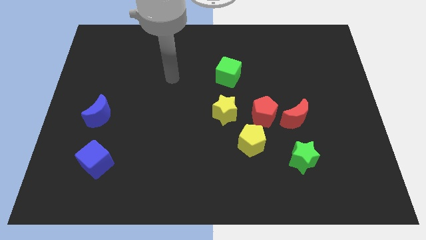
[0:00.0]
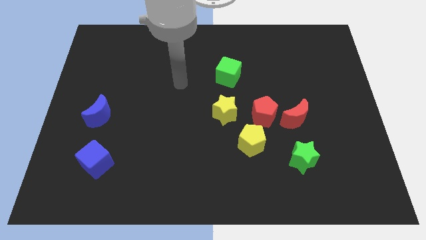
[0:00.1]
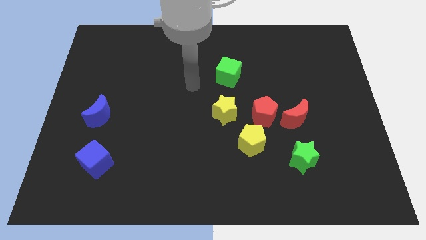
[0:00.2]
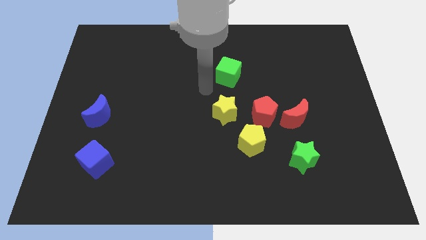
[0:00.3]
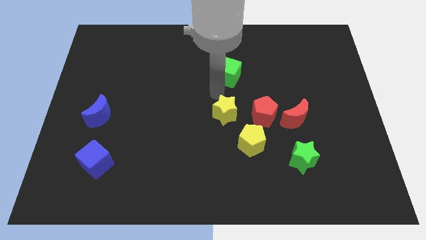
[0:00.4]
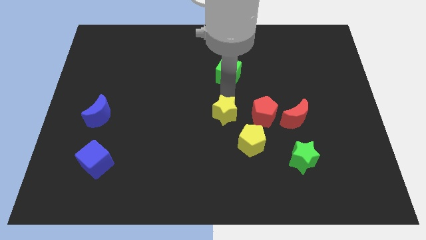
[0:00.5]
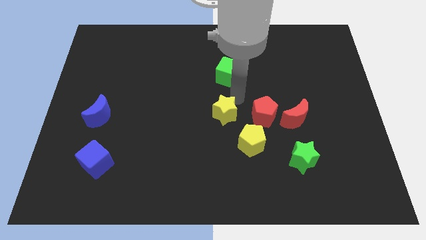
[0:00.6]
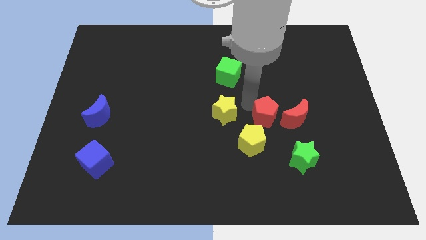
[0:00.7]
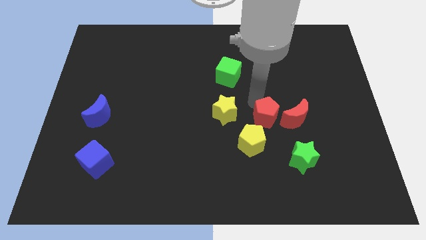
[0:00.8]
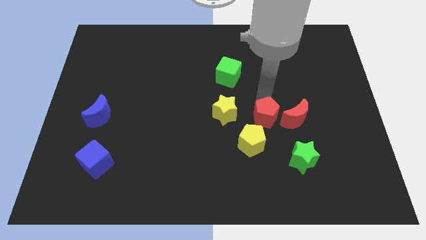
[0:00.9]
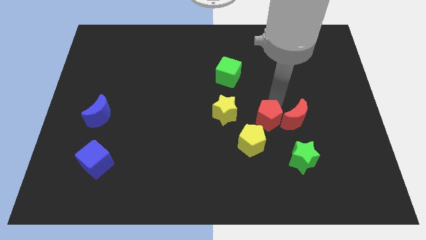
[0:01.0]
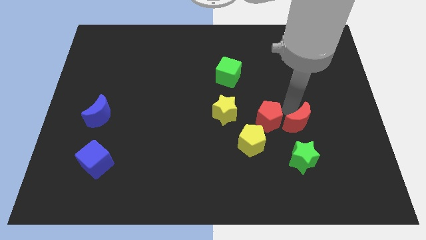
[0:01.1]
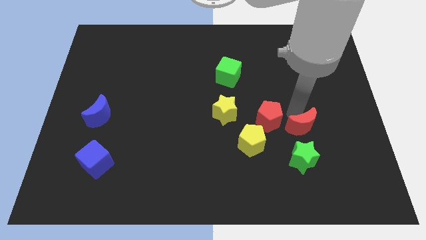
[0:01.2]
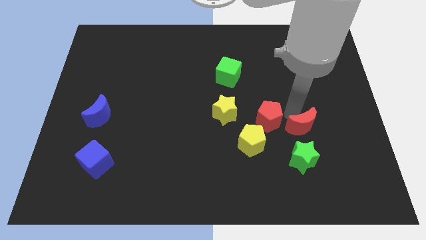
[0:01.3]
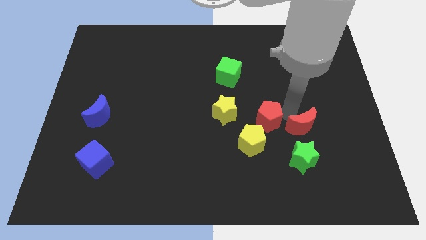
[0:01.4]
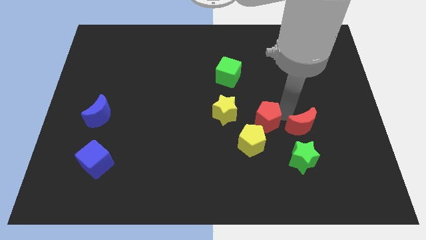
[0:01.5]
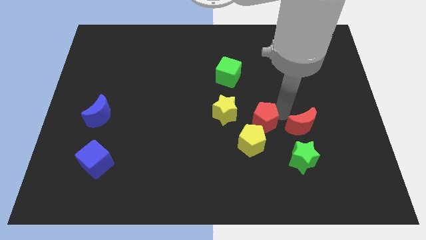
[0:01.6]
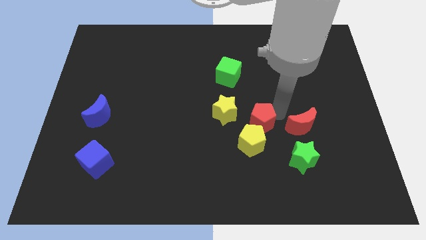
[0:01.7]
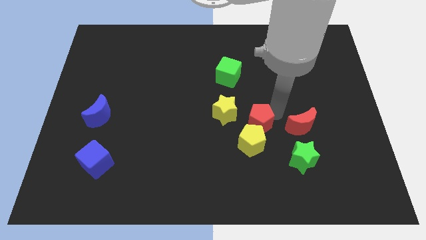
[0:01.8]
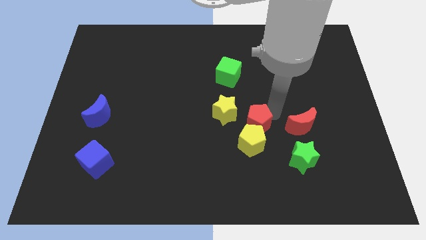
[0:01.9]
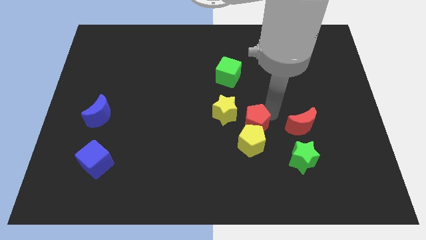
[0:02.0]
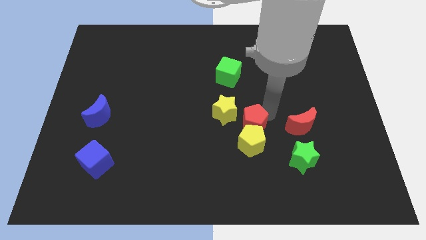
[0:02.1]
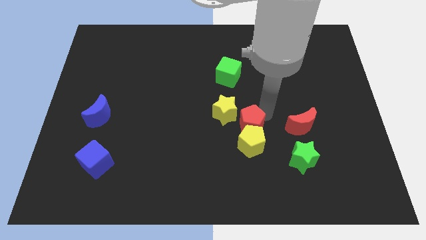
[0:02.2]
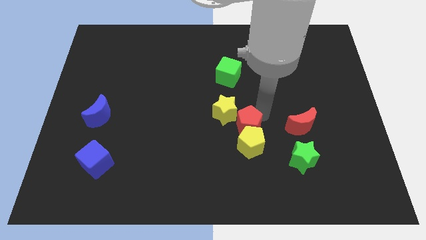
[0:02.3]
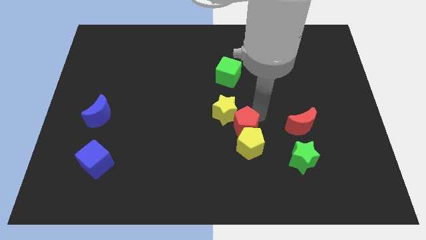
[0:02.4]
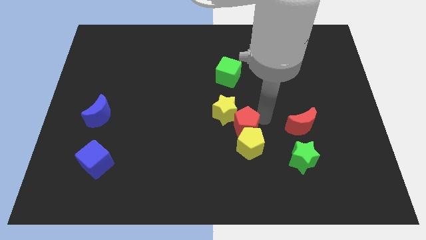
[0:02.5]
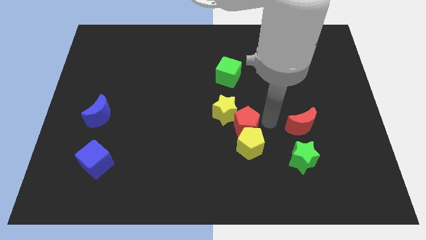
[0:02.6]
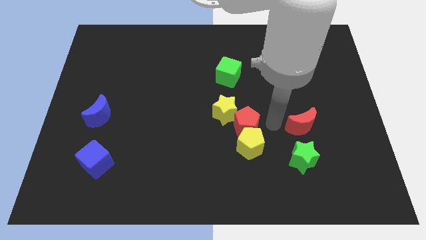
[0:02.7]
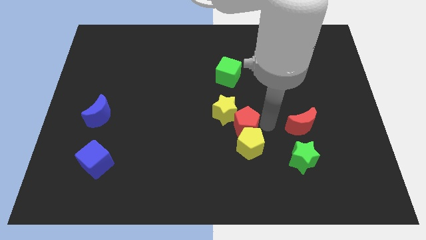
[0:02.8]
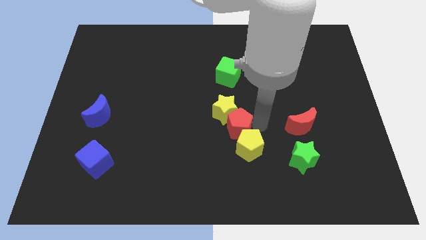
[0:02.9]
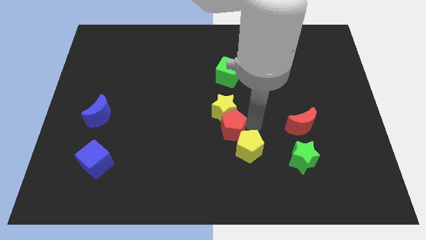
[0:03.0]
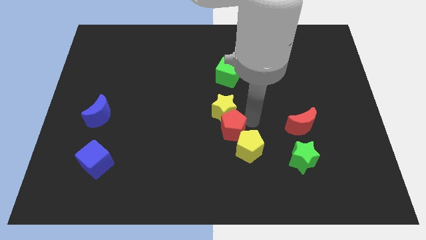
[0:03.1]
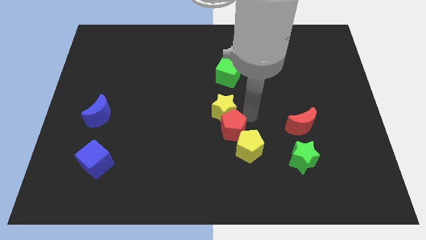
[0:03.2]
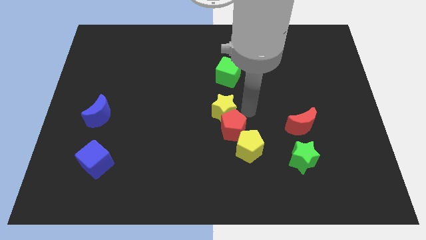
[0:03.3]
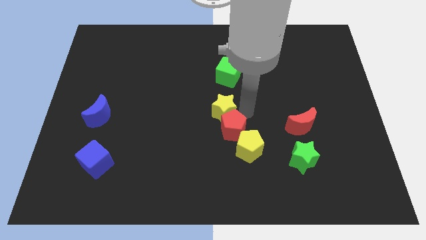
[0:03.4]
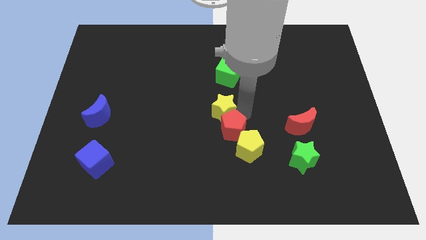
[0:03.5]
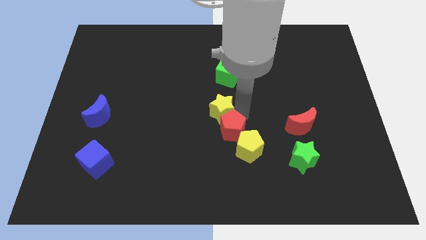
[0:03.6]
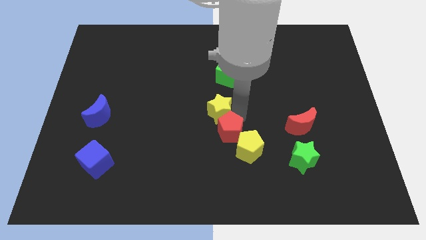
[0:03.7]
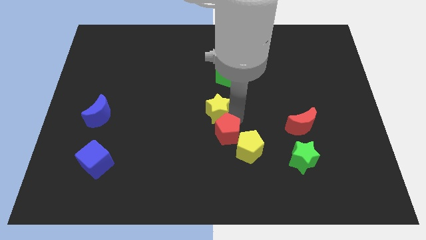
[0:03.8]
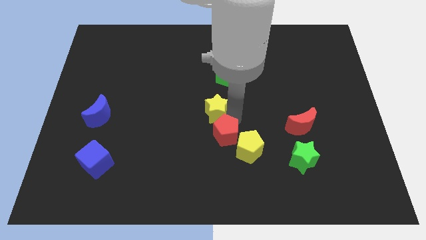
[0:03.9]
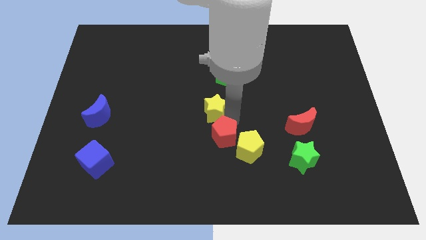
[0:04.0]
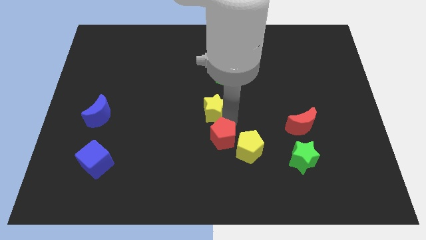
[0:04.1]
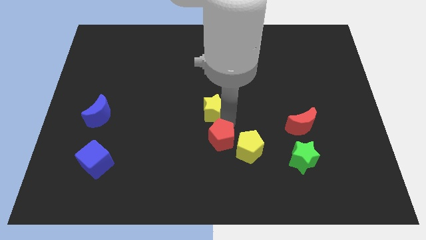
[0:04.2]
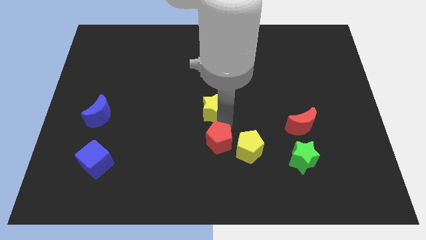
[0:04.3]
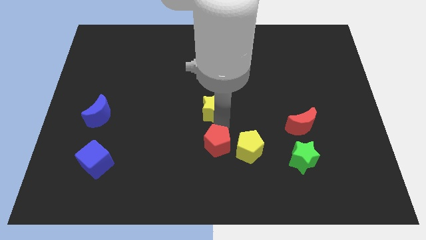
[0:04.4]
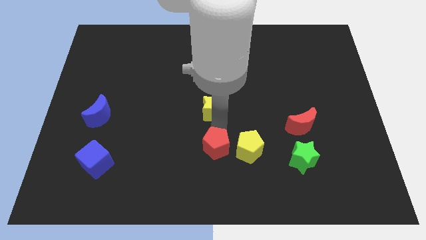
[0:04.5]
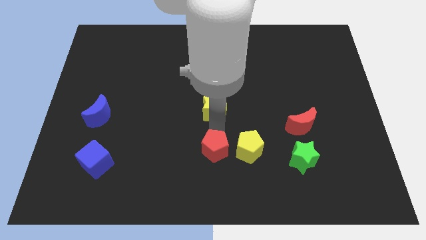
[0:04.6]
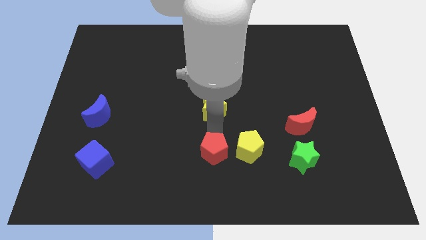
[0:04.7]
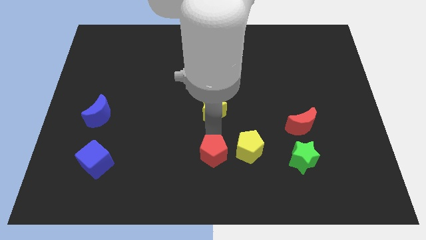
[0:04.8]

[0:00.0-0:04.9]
slide the red pentagon to the bottom

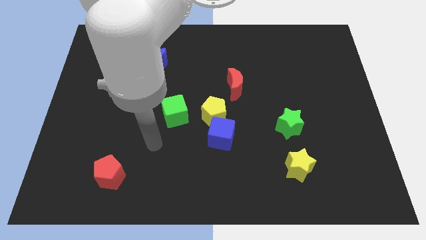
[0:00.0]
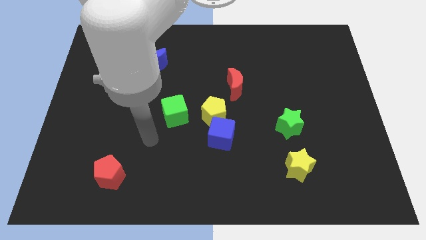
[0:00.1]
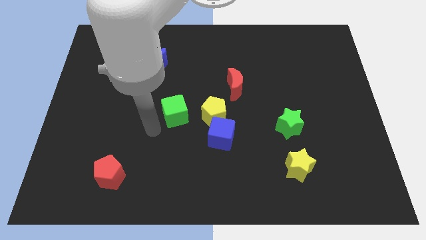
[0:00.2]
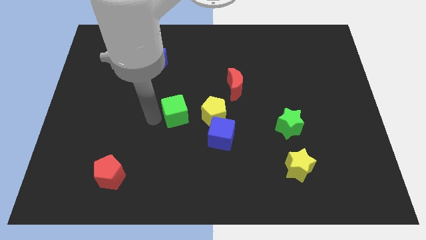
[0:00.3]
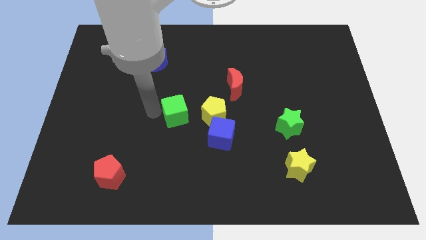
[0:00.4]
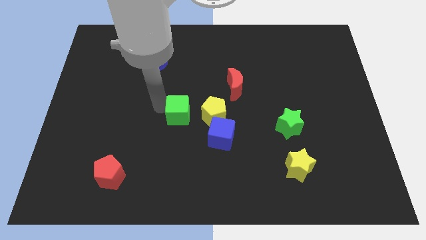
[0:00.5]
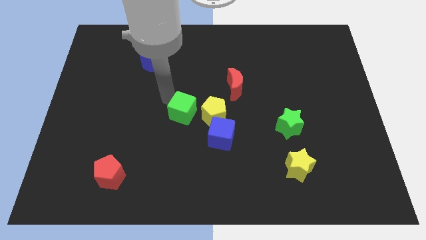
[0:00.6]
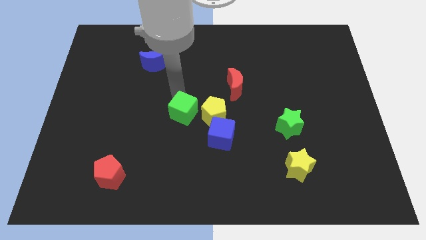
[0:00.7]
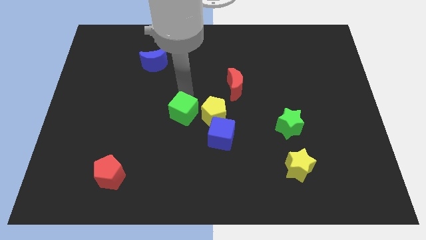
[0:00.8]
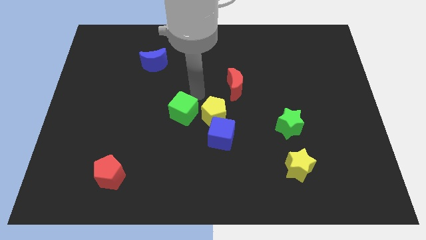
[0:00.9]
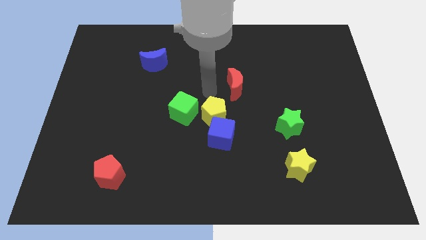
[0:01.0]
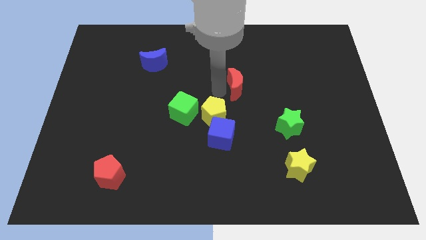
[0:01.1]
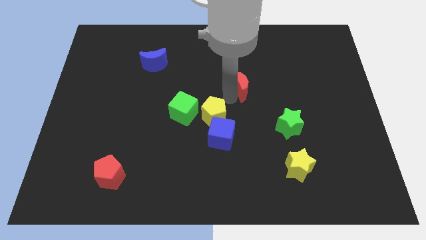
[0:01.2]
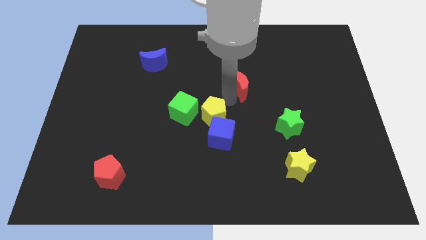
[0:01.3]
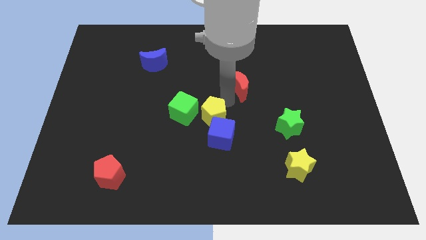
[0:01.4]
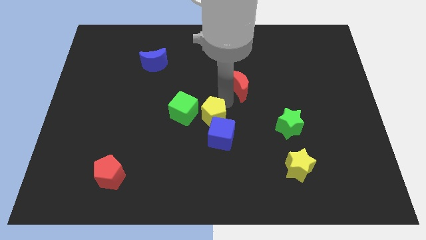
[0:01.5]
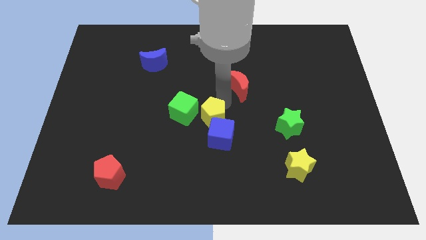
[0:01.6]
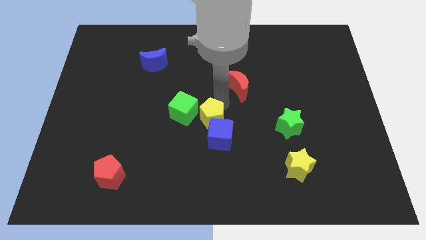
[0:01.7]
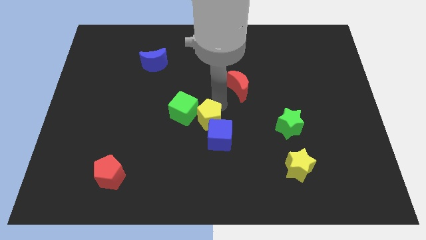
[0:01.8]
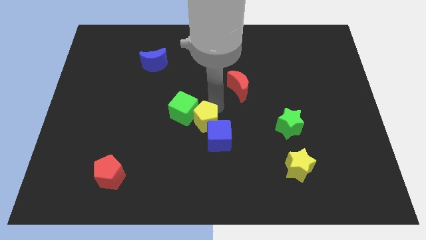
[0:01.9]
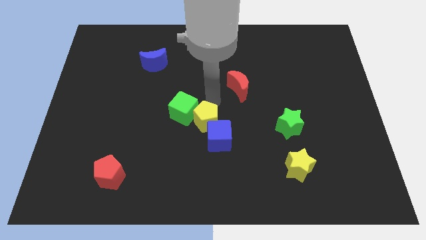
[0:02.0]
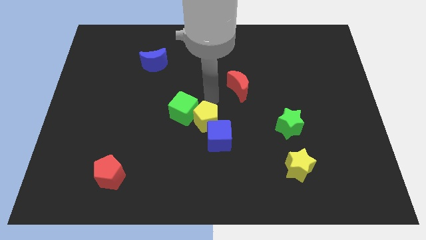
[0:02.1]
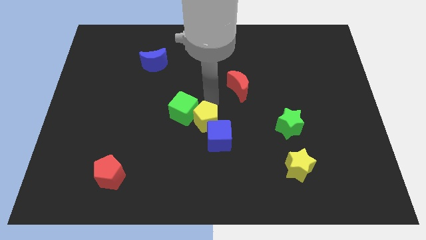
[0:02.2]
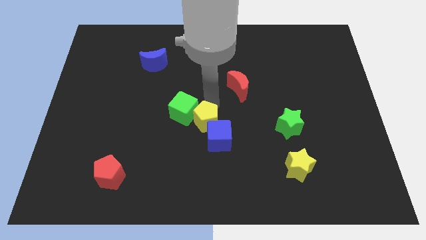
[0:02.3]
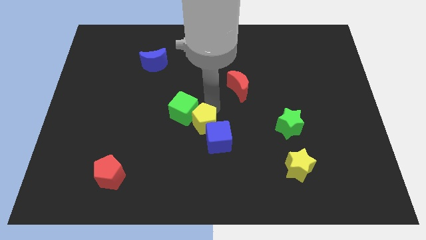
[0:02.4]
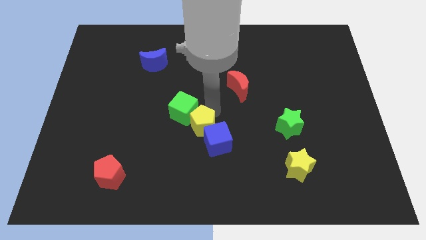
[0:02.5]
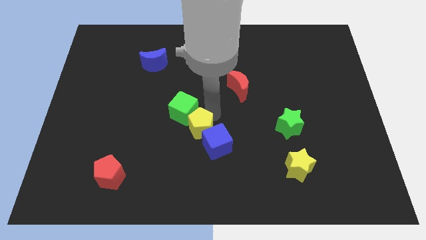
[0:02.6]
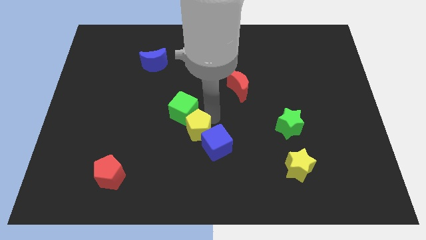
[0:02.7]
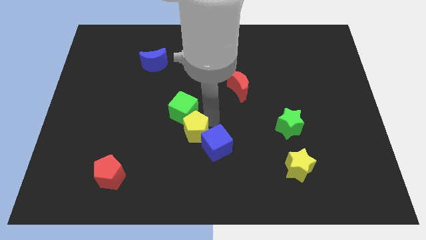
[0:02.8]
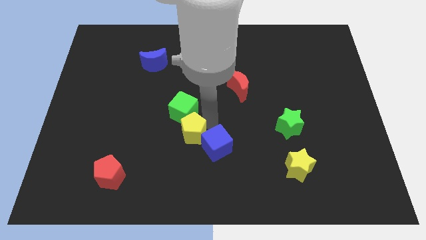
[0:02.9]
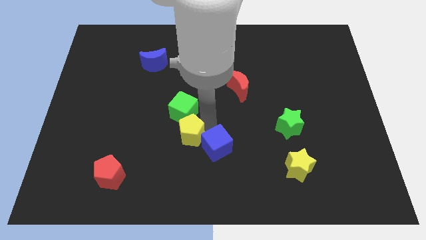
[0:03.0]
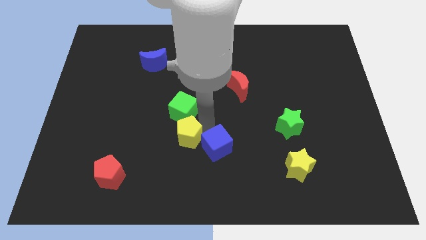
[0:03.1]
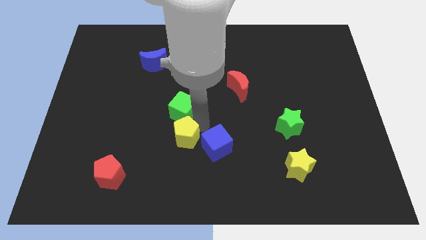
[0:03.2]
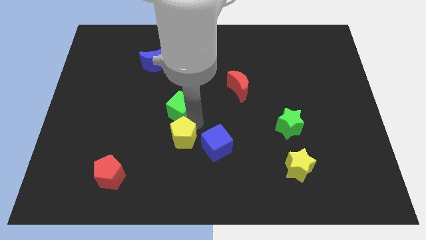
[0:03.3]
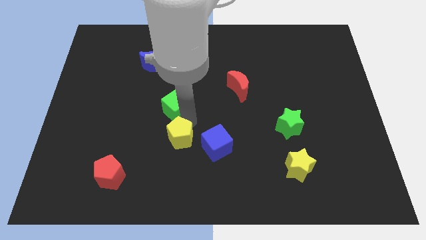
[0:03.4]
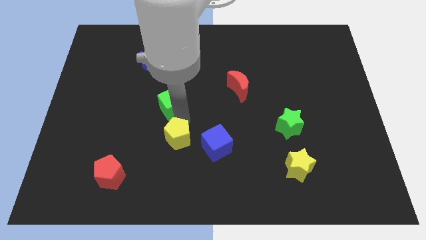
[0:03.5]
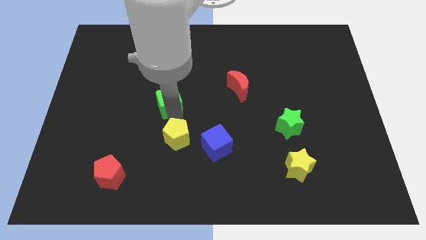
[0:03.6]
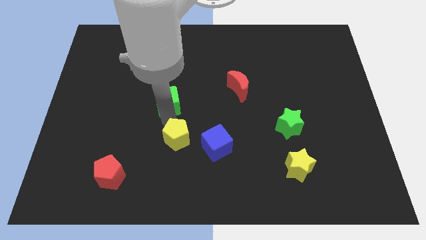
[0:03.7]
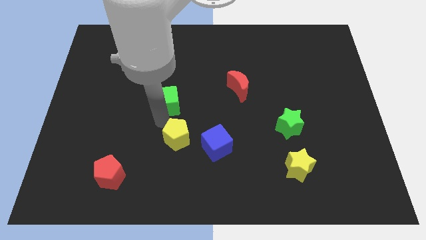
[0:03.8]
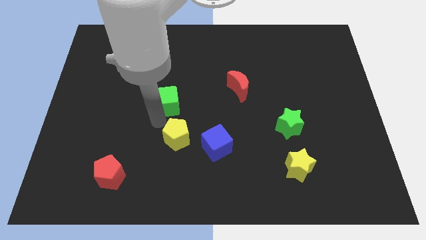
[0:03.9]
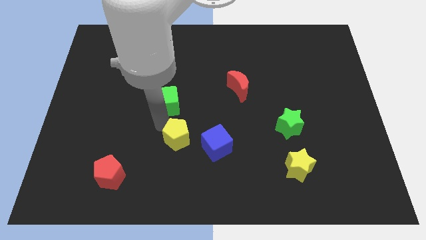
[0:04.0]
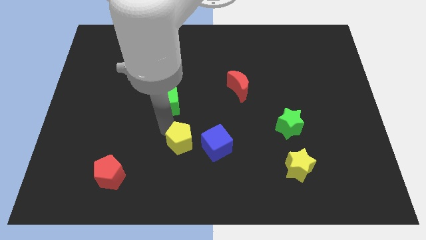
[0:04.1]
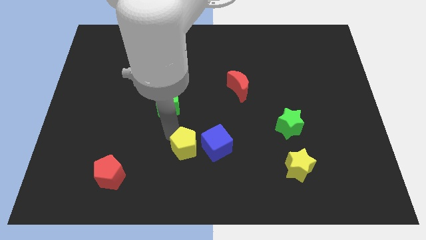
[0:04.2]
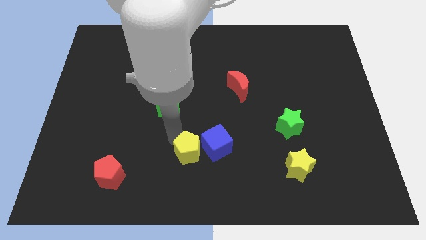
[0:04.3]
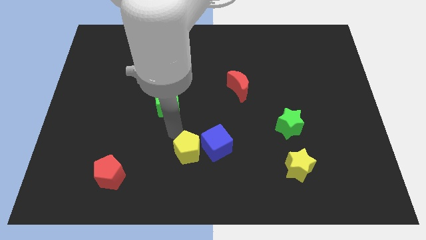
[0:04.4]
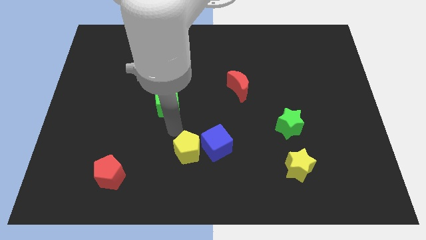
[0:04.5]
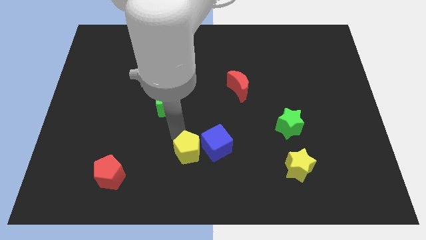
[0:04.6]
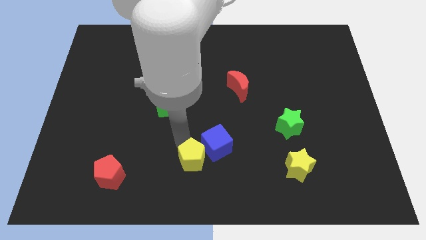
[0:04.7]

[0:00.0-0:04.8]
push the yellow pentagon to the bottom
